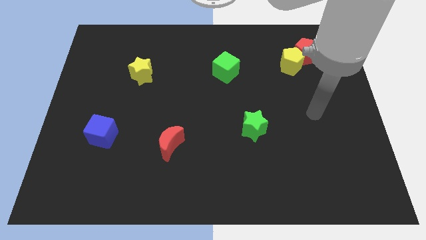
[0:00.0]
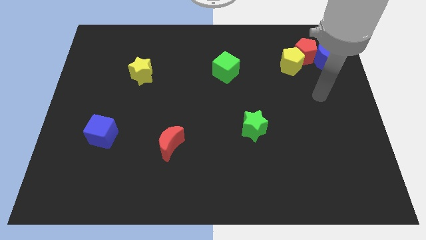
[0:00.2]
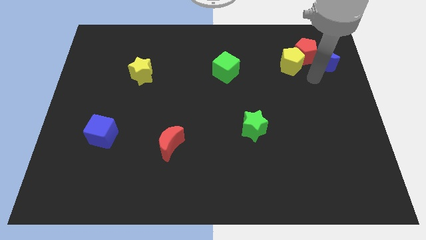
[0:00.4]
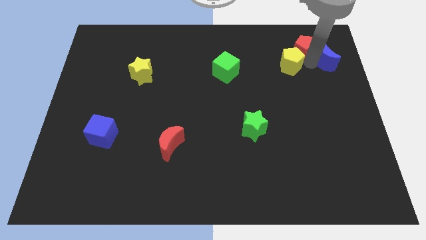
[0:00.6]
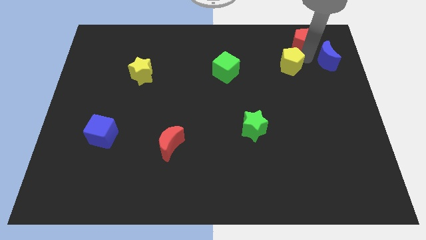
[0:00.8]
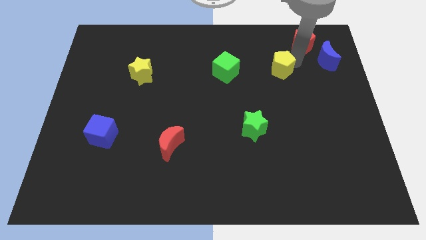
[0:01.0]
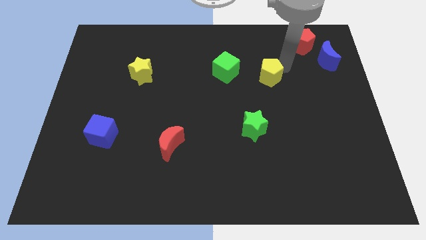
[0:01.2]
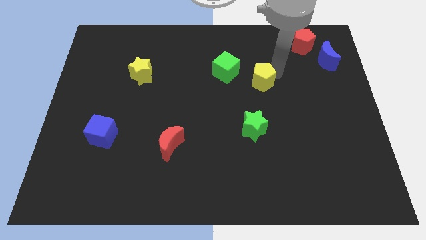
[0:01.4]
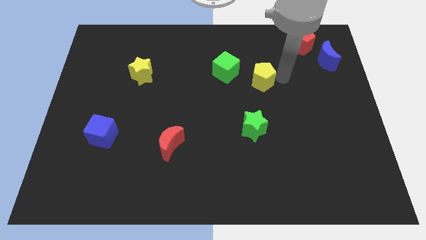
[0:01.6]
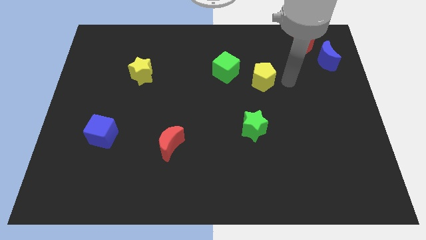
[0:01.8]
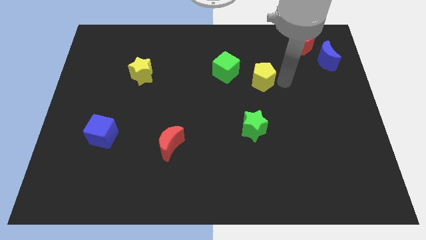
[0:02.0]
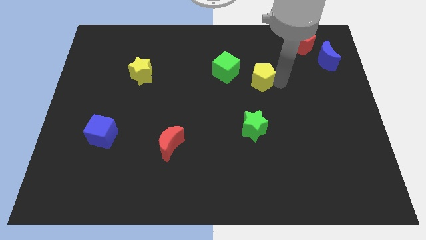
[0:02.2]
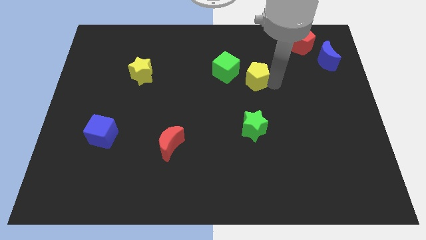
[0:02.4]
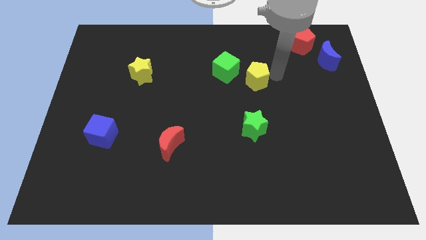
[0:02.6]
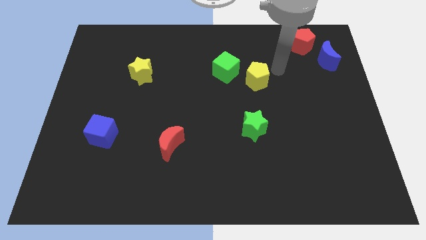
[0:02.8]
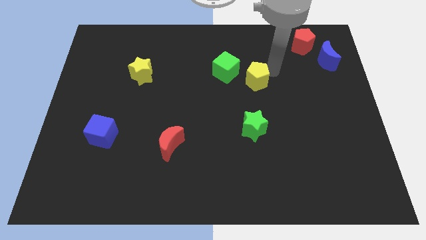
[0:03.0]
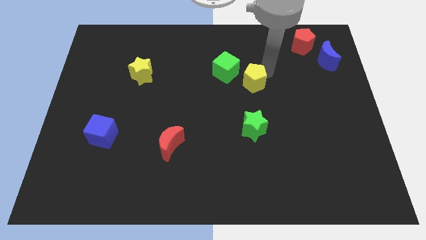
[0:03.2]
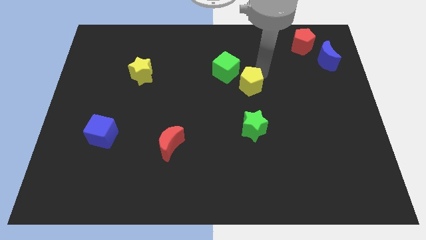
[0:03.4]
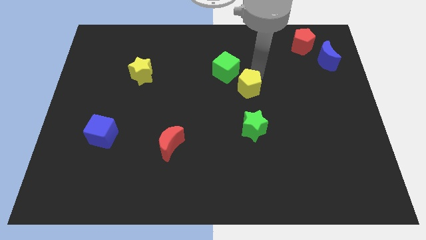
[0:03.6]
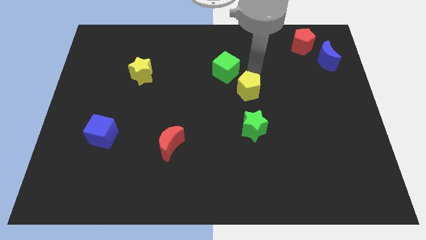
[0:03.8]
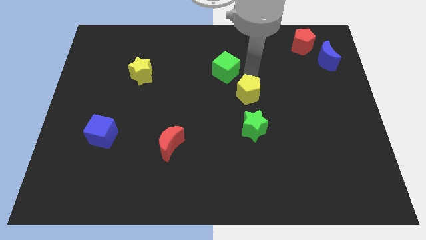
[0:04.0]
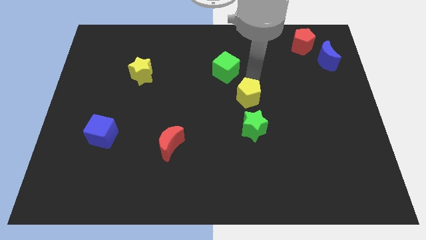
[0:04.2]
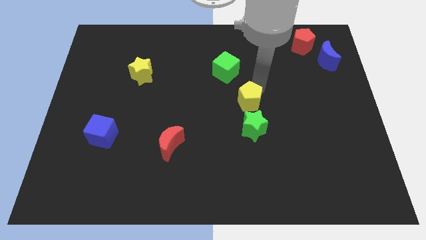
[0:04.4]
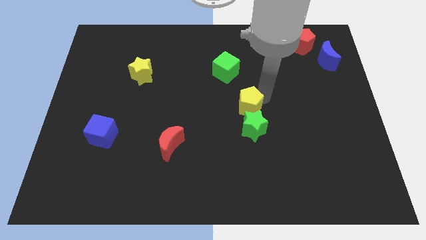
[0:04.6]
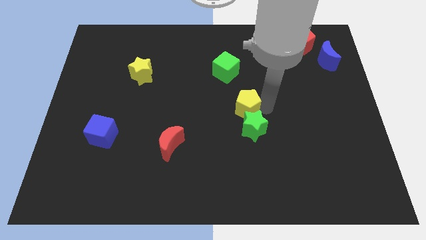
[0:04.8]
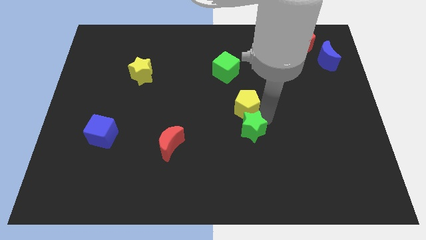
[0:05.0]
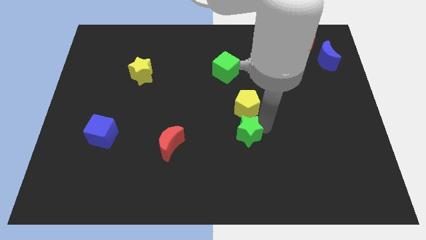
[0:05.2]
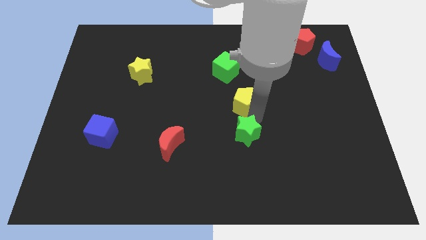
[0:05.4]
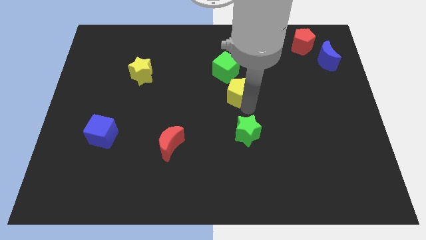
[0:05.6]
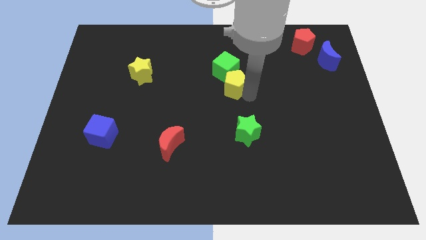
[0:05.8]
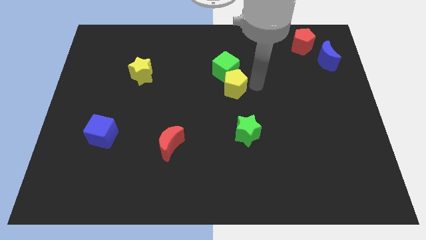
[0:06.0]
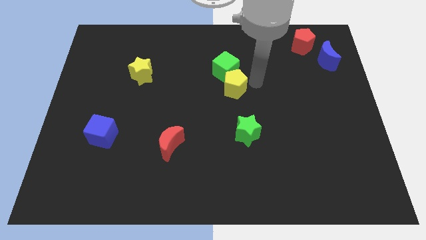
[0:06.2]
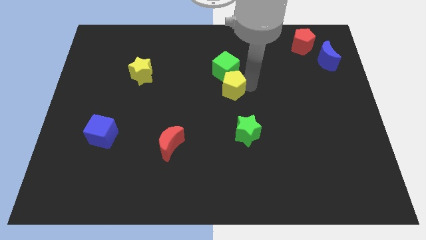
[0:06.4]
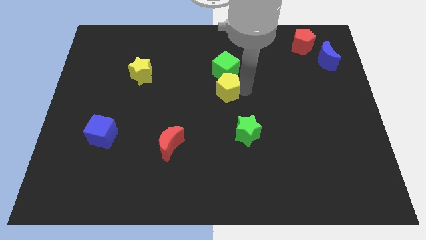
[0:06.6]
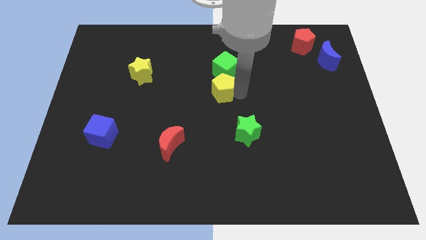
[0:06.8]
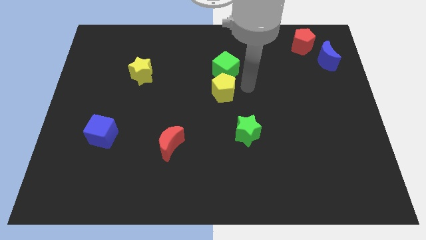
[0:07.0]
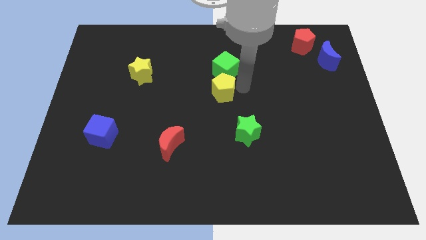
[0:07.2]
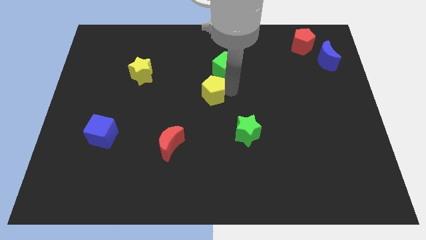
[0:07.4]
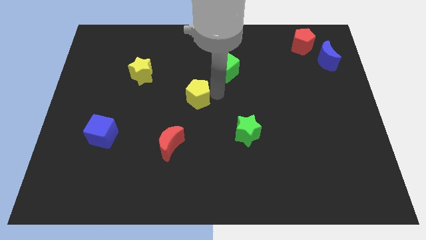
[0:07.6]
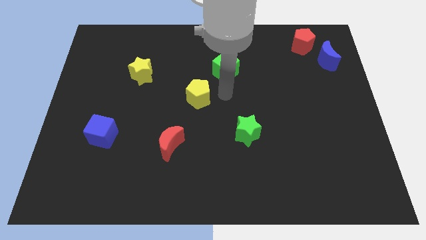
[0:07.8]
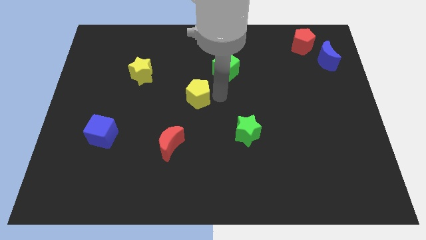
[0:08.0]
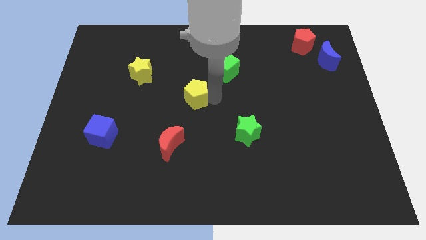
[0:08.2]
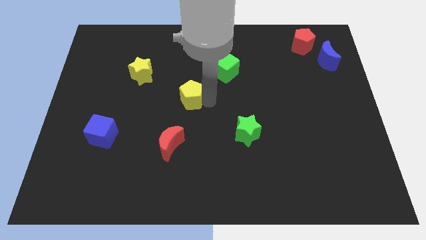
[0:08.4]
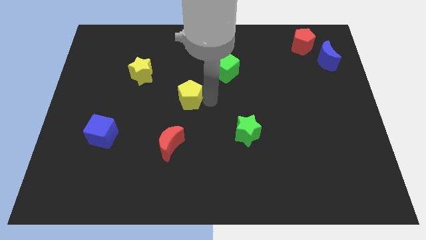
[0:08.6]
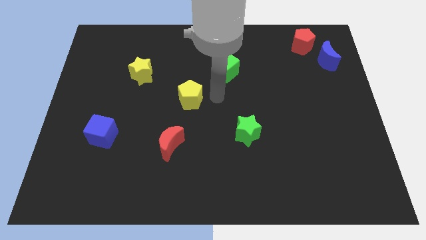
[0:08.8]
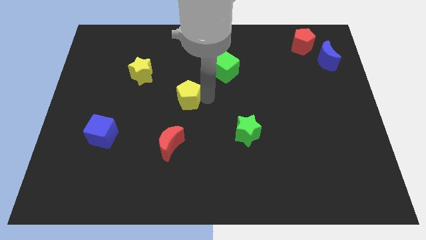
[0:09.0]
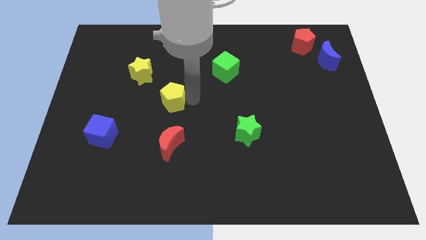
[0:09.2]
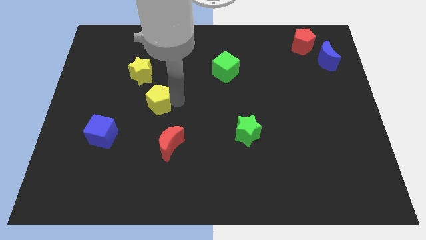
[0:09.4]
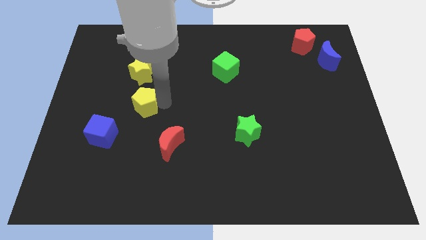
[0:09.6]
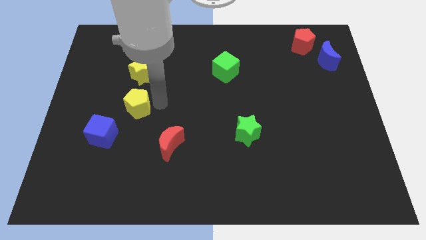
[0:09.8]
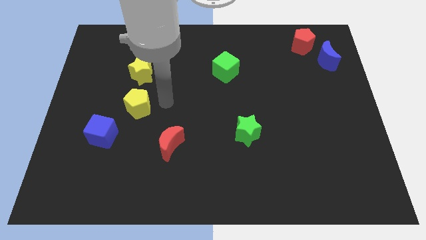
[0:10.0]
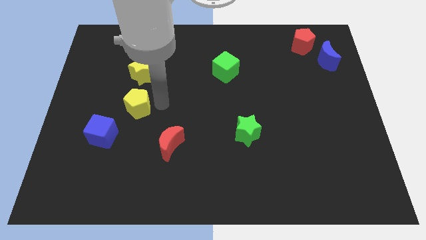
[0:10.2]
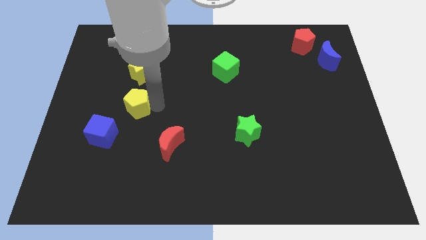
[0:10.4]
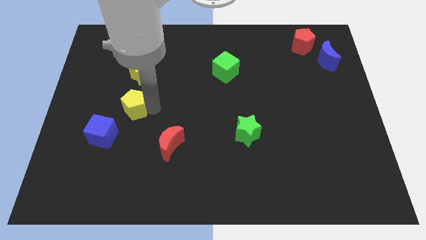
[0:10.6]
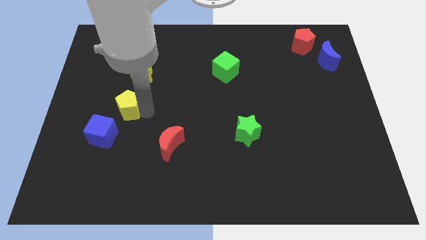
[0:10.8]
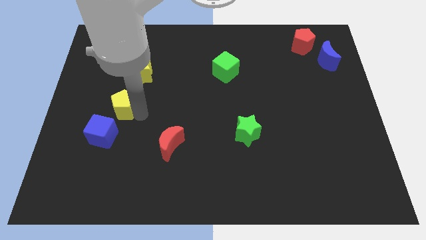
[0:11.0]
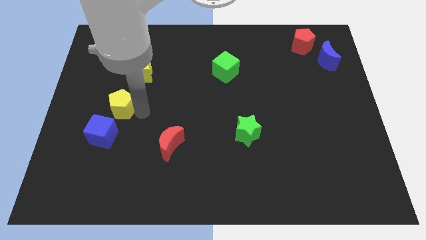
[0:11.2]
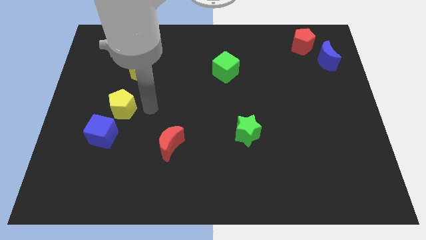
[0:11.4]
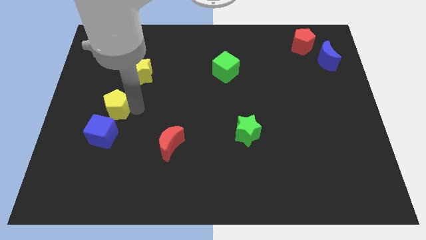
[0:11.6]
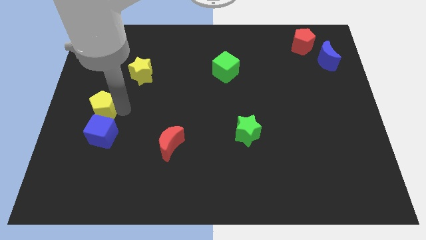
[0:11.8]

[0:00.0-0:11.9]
push the yellow pentagon to the left side
